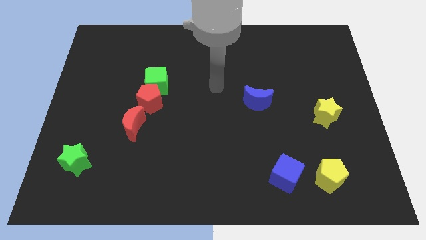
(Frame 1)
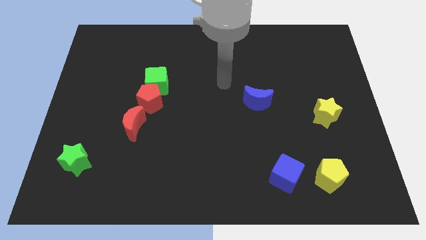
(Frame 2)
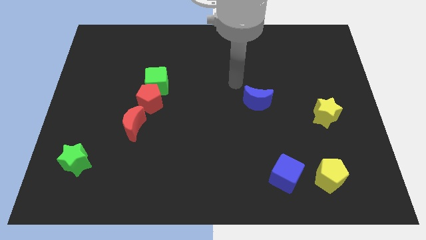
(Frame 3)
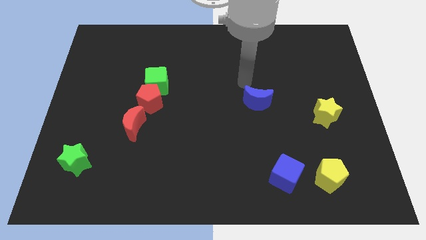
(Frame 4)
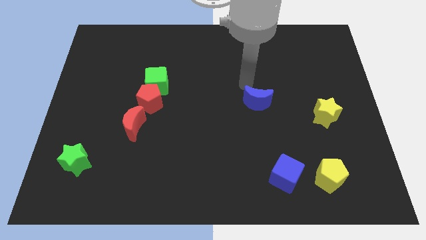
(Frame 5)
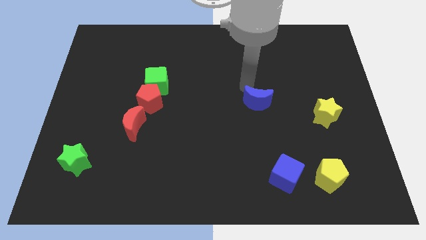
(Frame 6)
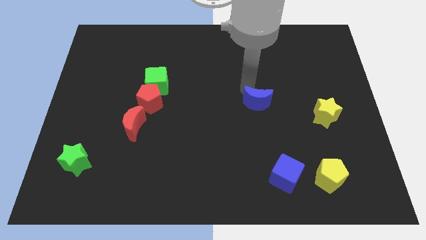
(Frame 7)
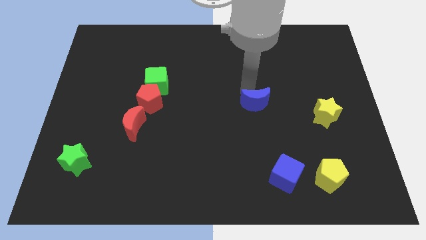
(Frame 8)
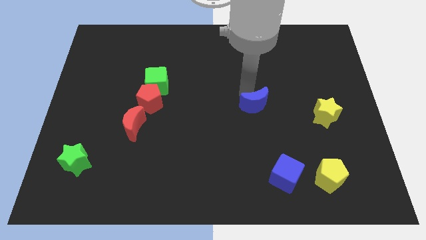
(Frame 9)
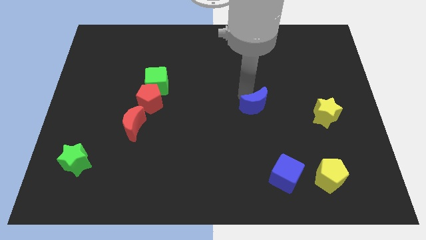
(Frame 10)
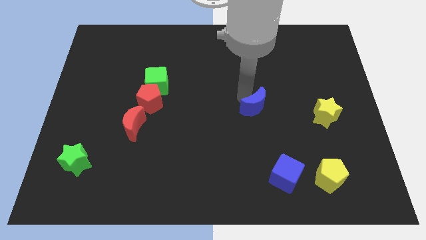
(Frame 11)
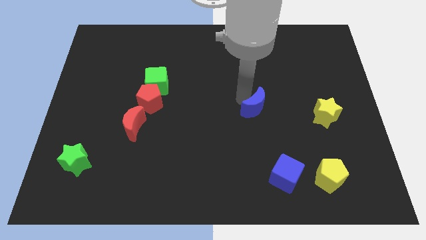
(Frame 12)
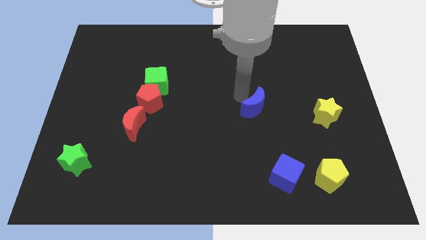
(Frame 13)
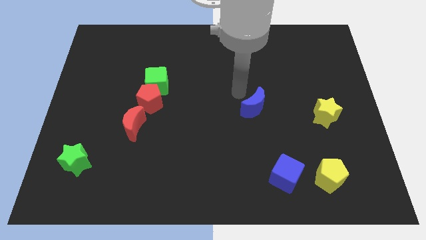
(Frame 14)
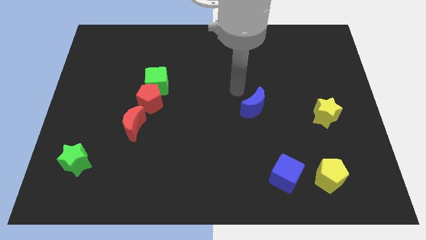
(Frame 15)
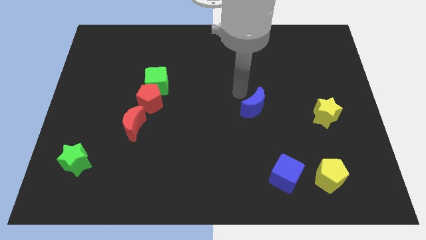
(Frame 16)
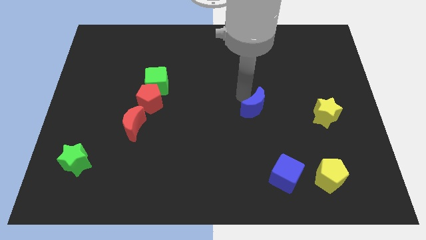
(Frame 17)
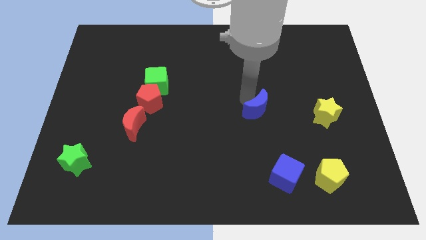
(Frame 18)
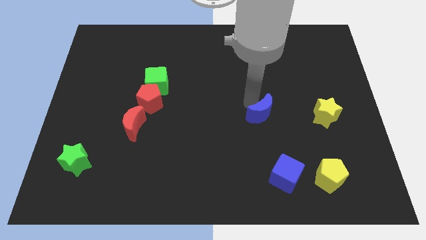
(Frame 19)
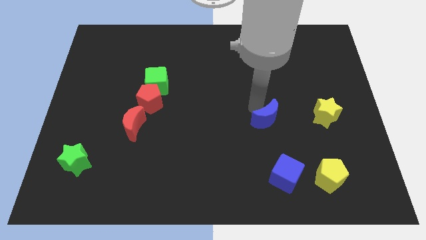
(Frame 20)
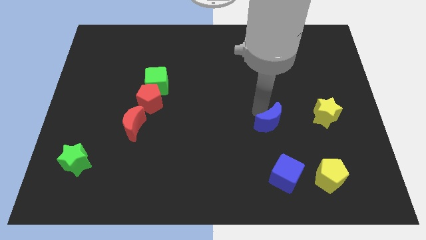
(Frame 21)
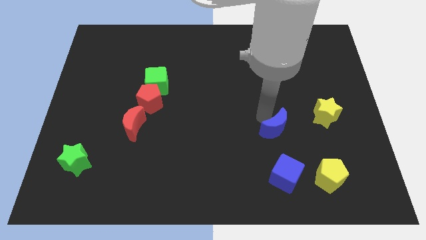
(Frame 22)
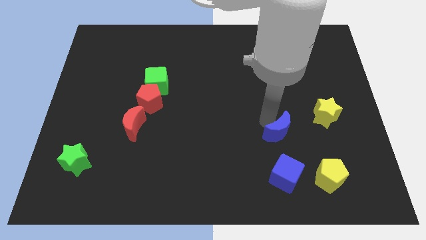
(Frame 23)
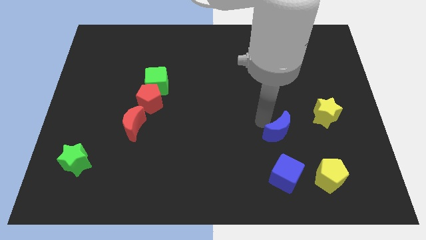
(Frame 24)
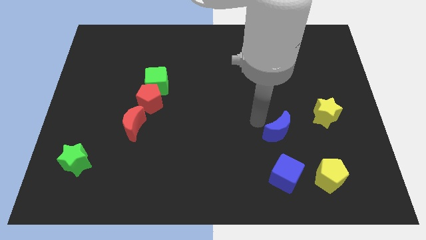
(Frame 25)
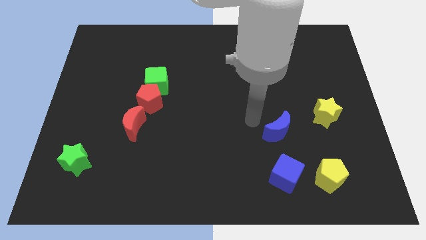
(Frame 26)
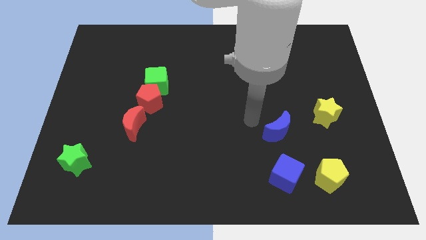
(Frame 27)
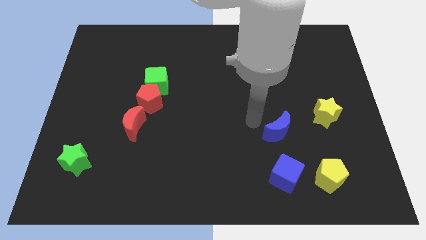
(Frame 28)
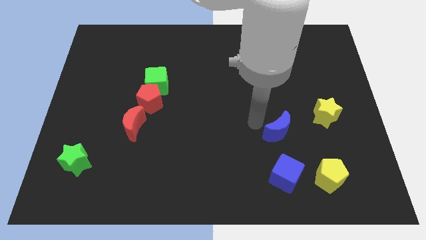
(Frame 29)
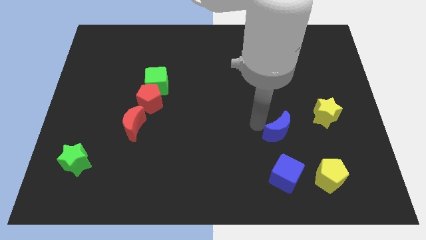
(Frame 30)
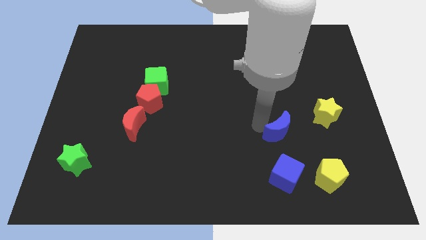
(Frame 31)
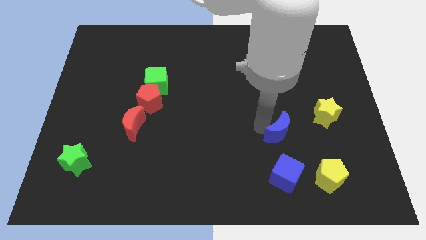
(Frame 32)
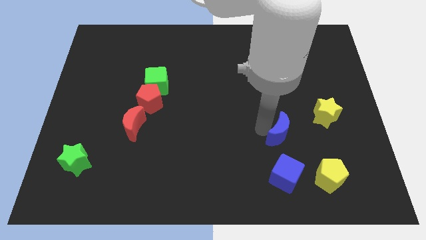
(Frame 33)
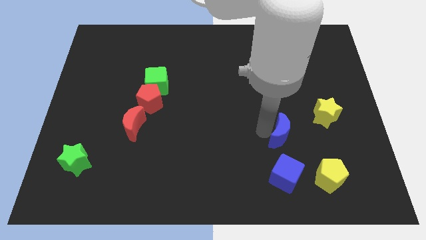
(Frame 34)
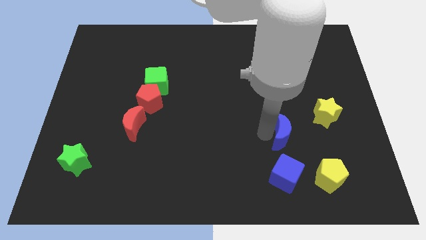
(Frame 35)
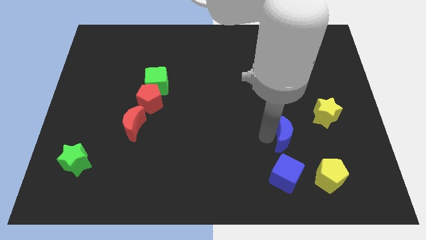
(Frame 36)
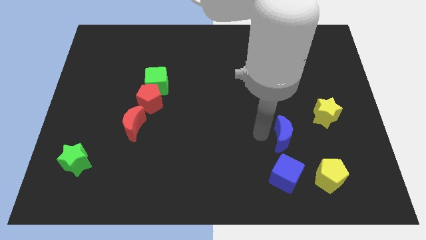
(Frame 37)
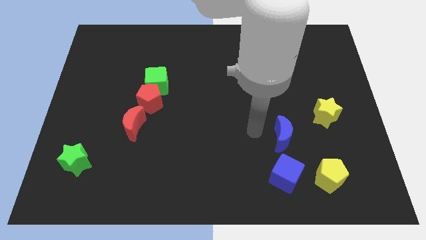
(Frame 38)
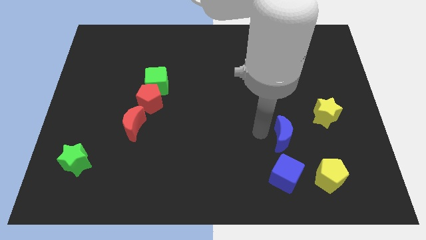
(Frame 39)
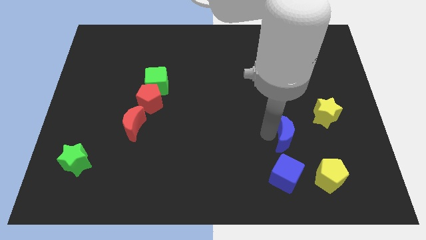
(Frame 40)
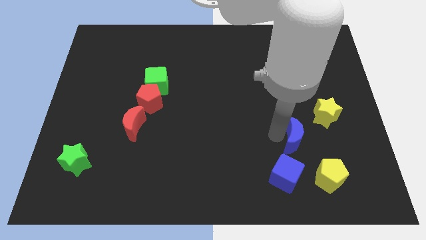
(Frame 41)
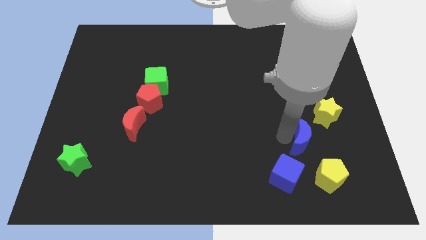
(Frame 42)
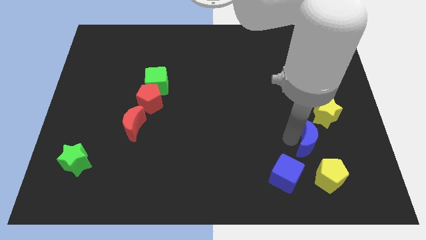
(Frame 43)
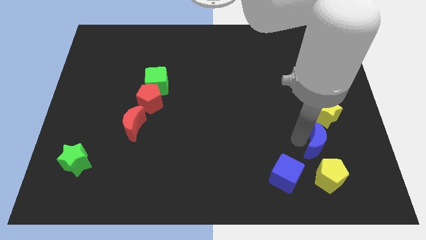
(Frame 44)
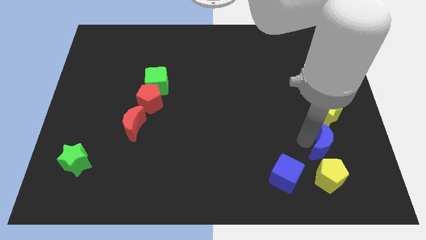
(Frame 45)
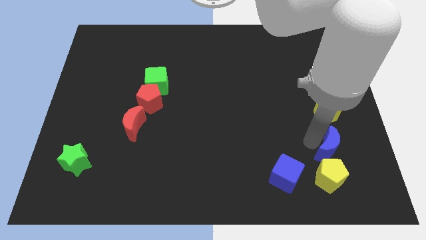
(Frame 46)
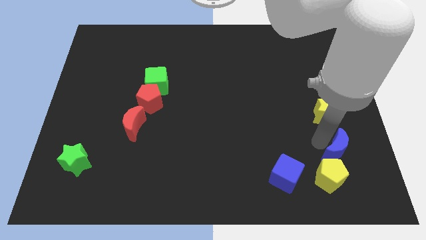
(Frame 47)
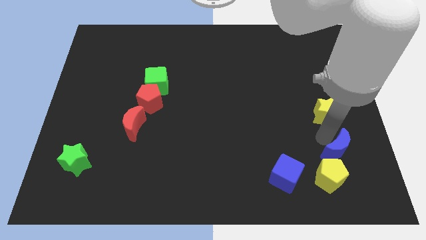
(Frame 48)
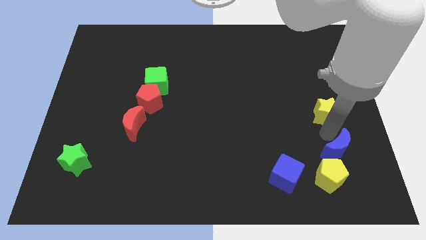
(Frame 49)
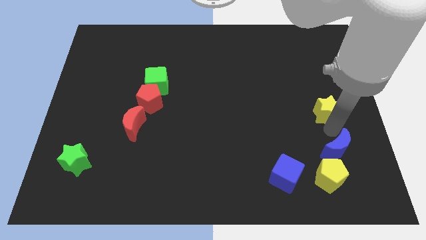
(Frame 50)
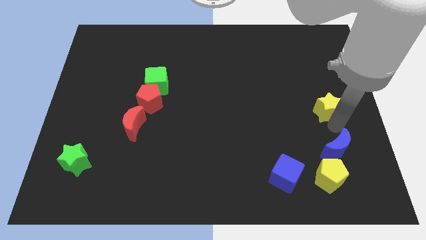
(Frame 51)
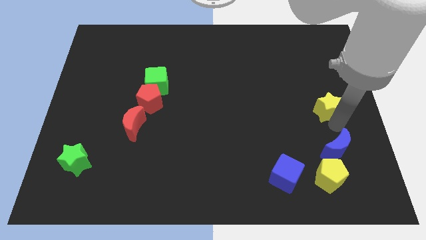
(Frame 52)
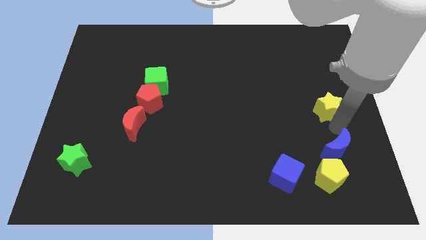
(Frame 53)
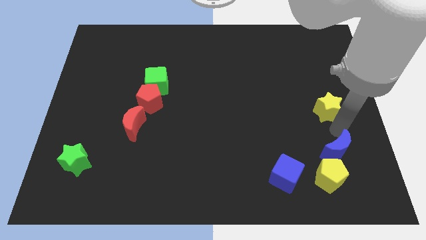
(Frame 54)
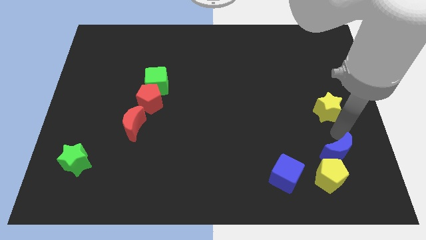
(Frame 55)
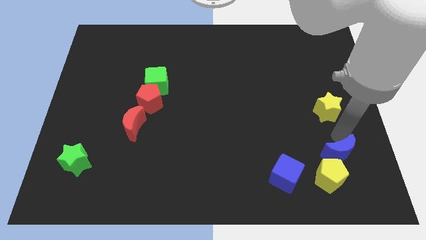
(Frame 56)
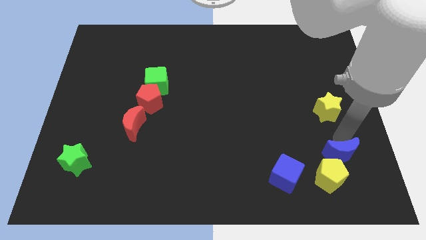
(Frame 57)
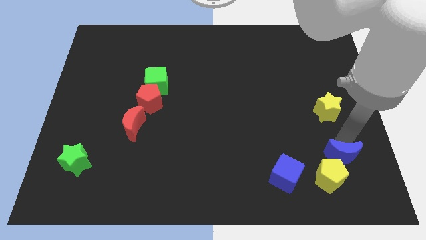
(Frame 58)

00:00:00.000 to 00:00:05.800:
push the blue moon right of the blue cube

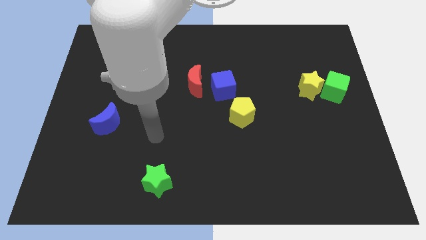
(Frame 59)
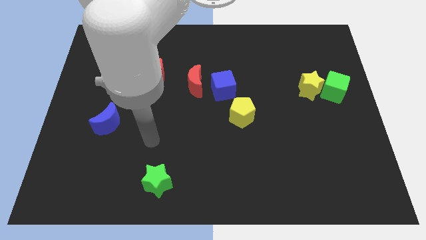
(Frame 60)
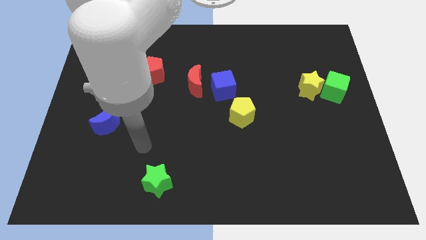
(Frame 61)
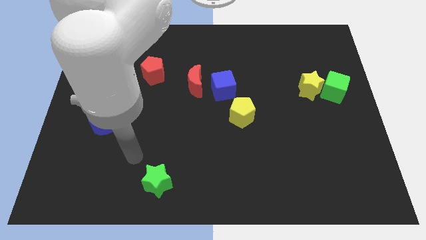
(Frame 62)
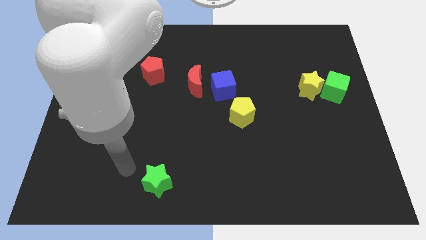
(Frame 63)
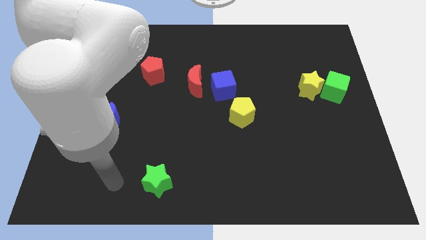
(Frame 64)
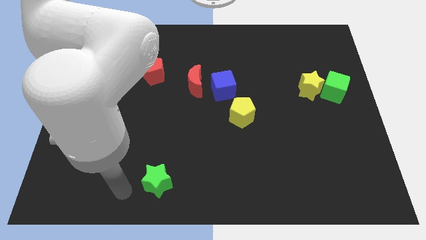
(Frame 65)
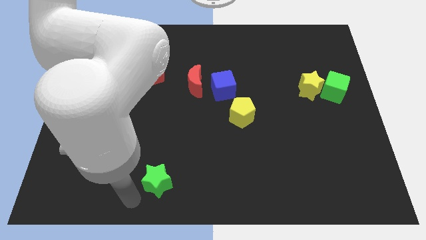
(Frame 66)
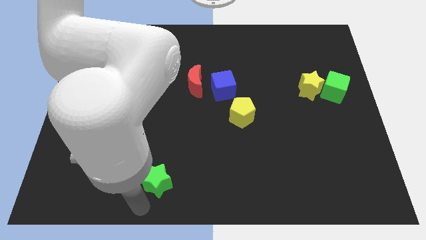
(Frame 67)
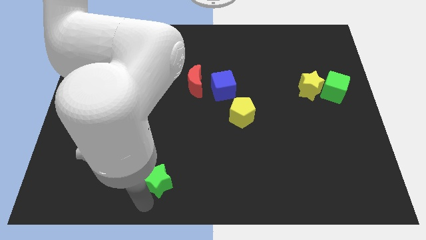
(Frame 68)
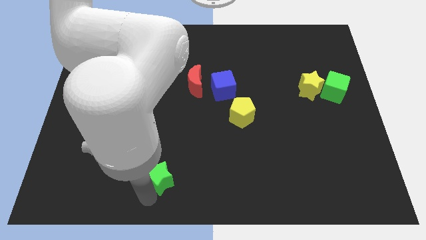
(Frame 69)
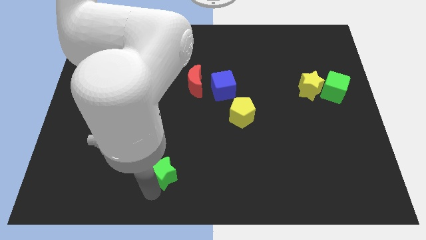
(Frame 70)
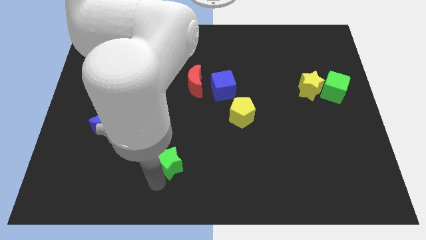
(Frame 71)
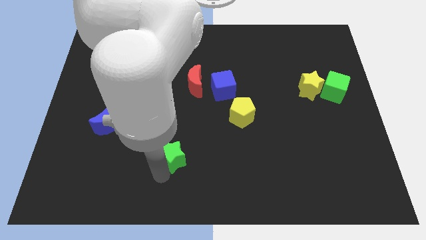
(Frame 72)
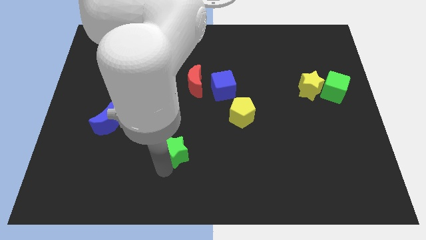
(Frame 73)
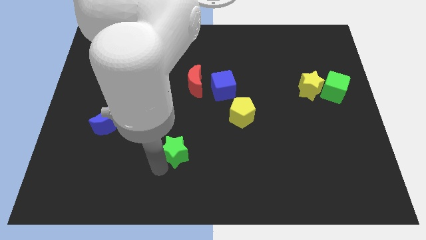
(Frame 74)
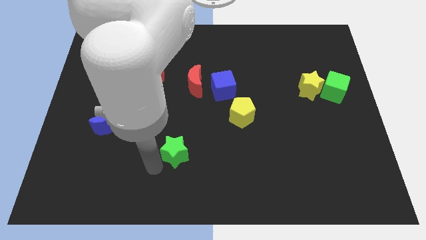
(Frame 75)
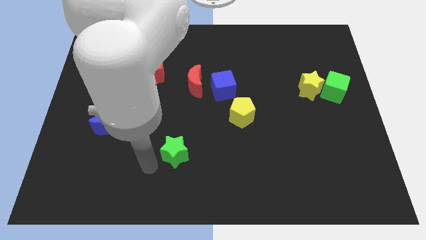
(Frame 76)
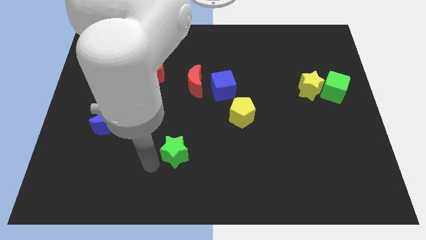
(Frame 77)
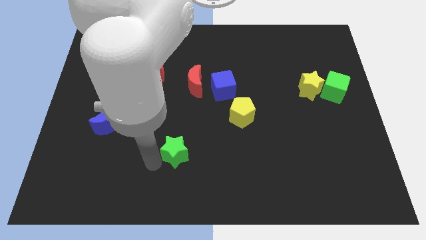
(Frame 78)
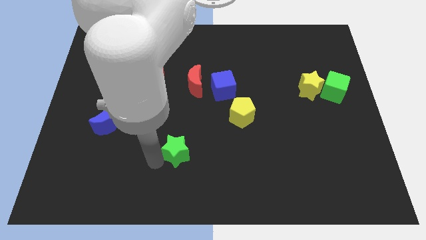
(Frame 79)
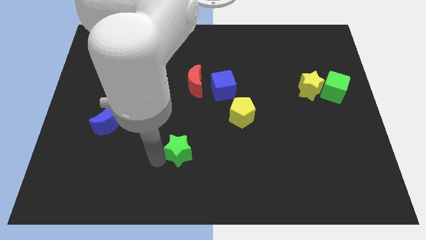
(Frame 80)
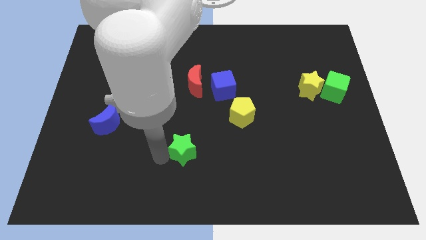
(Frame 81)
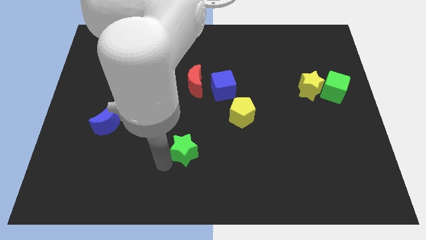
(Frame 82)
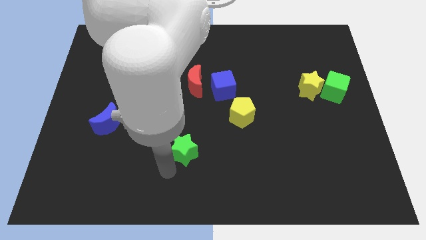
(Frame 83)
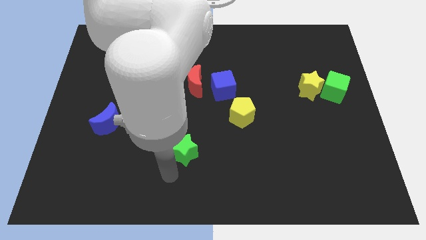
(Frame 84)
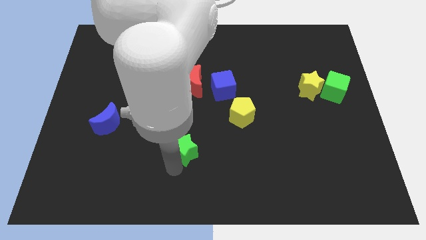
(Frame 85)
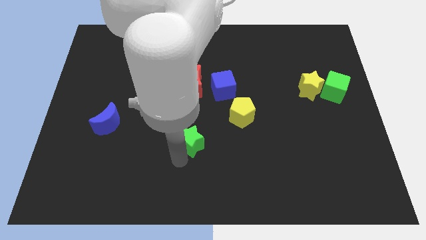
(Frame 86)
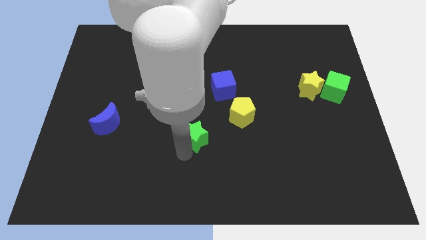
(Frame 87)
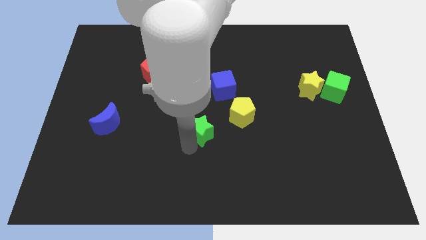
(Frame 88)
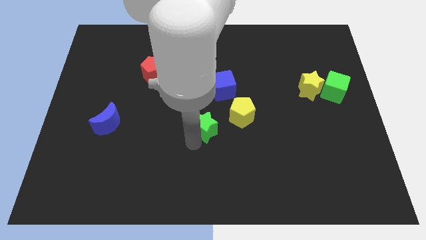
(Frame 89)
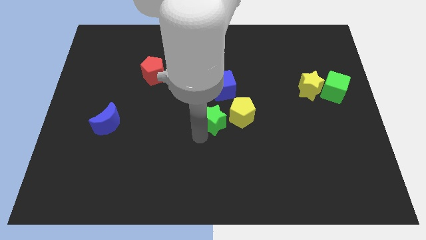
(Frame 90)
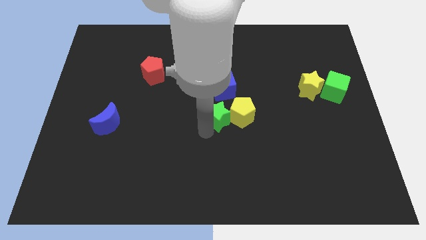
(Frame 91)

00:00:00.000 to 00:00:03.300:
push the green star to the bottom right of the red moon
